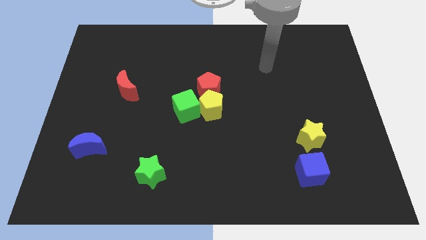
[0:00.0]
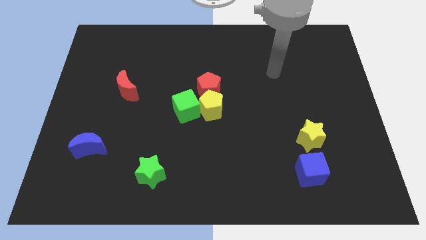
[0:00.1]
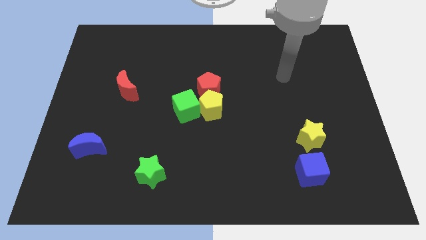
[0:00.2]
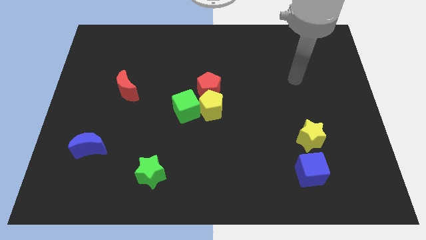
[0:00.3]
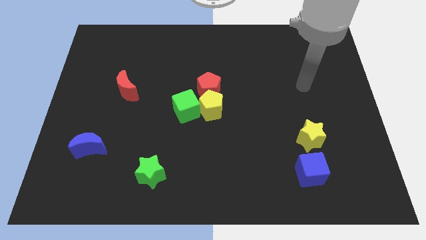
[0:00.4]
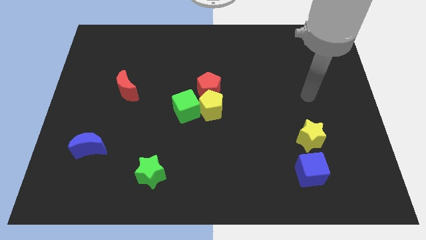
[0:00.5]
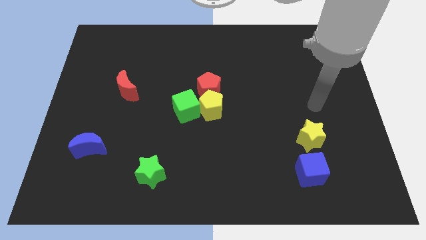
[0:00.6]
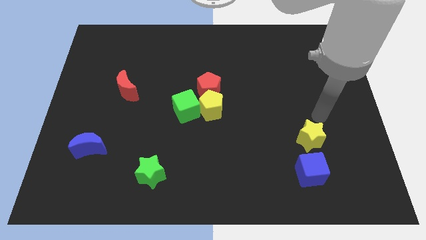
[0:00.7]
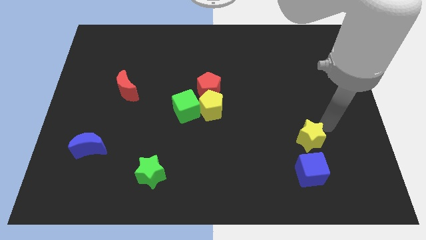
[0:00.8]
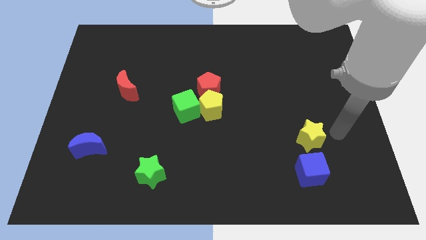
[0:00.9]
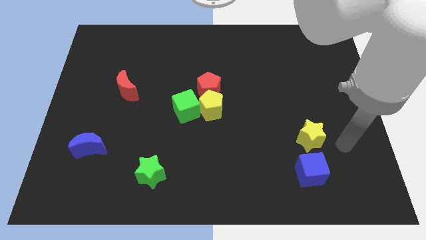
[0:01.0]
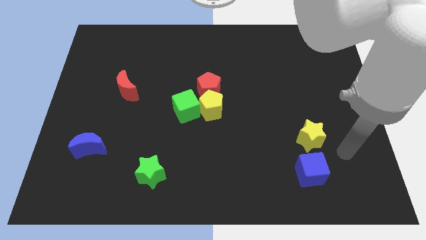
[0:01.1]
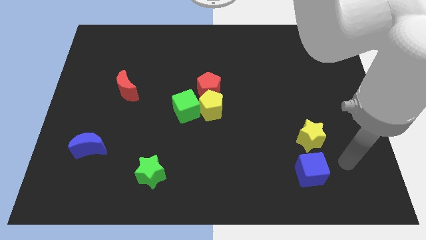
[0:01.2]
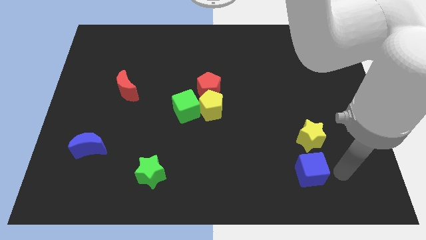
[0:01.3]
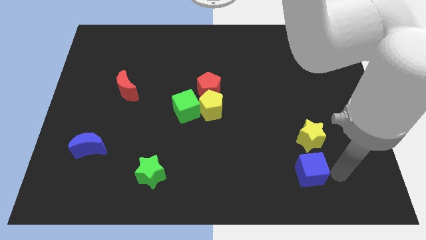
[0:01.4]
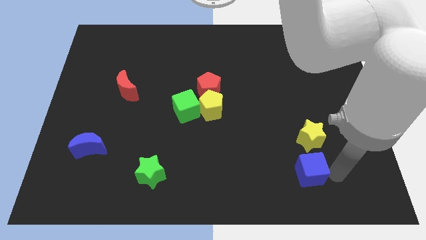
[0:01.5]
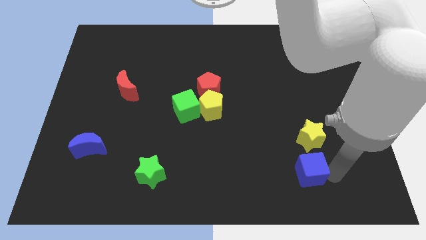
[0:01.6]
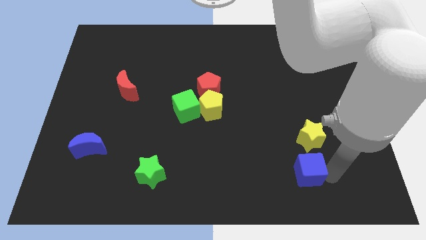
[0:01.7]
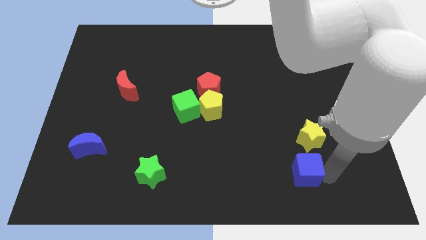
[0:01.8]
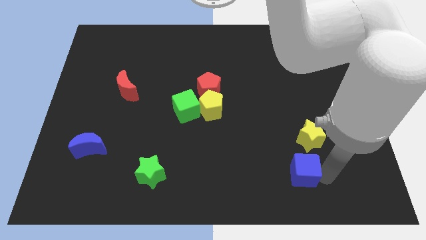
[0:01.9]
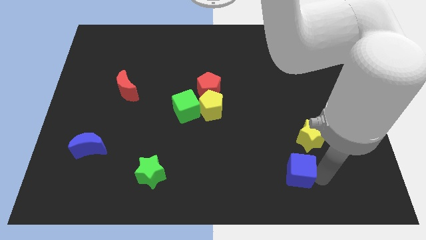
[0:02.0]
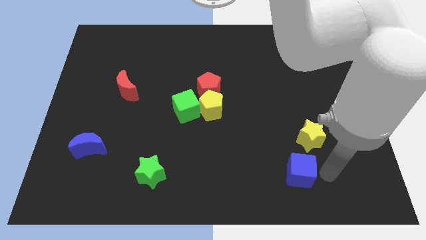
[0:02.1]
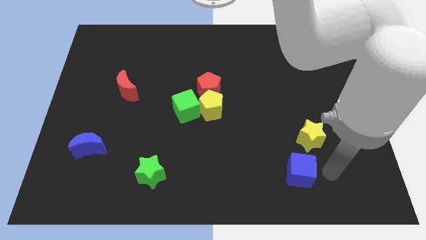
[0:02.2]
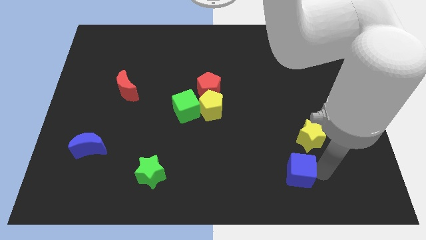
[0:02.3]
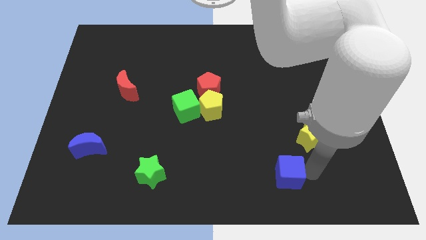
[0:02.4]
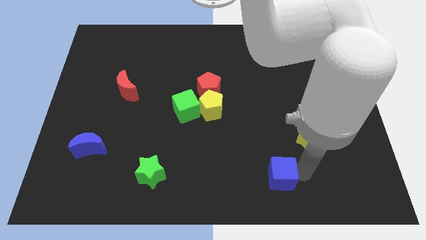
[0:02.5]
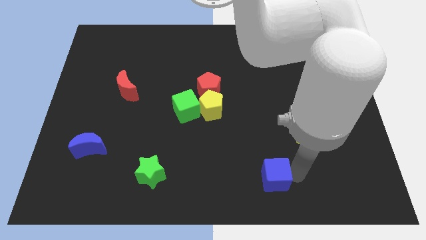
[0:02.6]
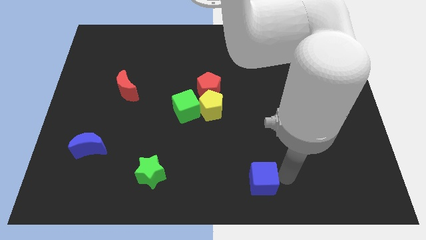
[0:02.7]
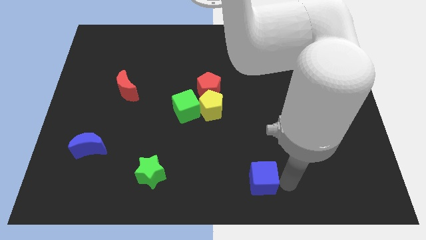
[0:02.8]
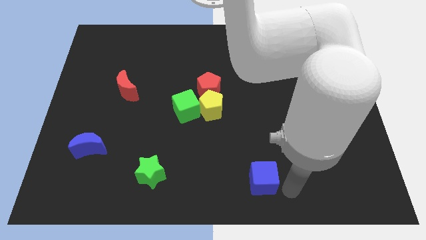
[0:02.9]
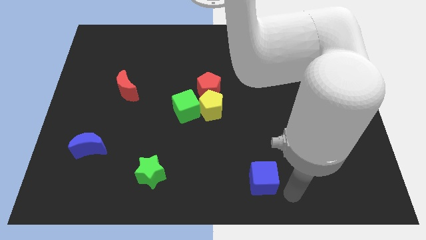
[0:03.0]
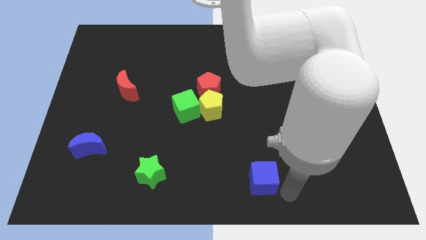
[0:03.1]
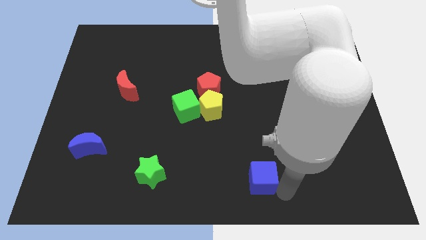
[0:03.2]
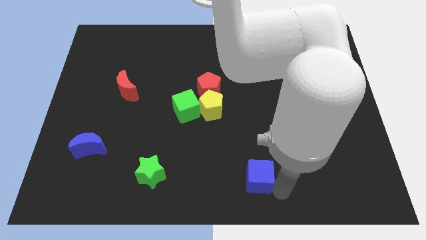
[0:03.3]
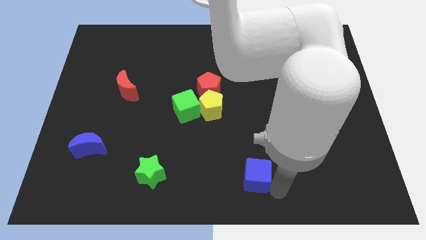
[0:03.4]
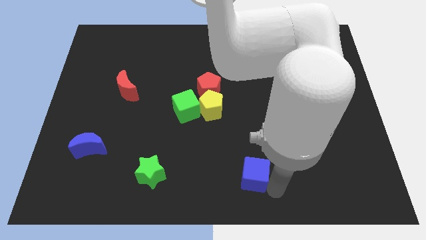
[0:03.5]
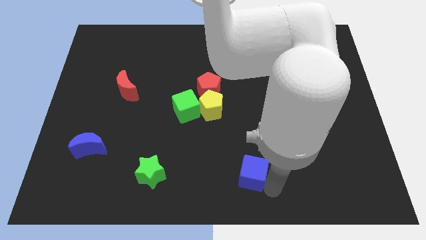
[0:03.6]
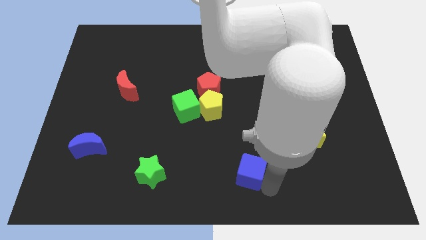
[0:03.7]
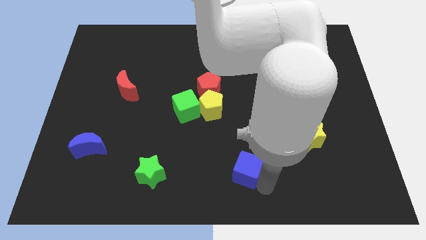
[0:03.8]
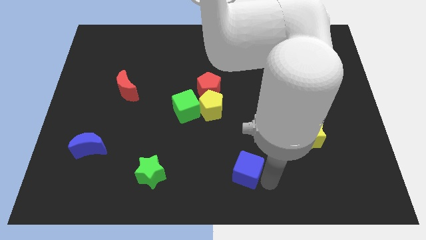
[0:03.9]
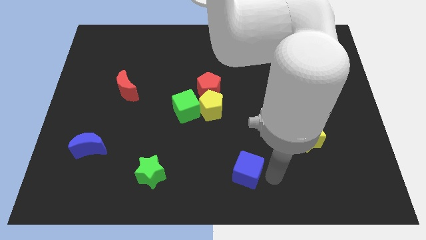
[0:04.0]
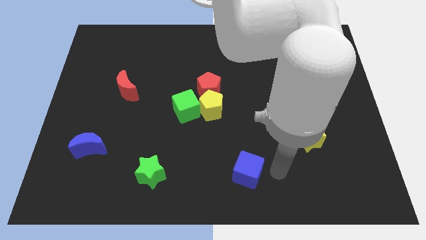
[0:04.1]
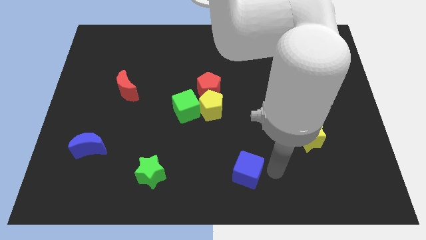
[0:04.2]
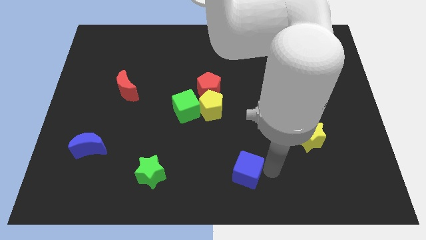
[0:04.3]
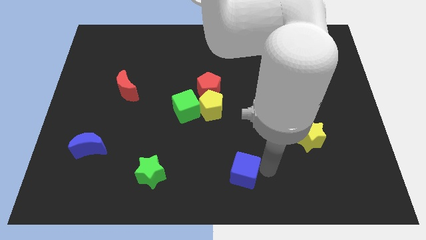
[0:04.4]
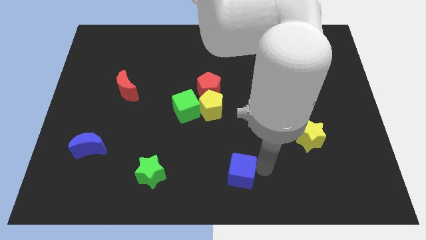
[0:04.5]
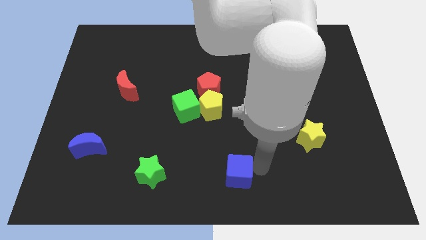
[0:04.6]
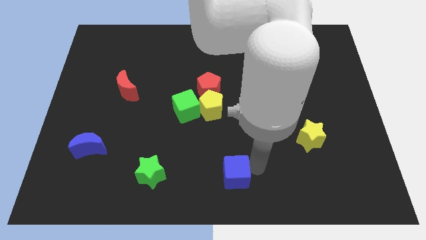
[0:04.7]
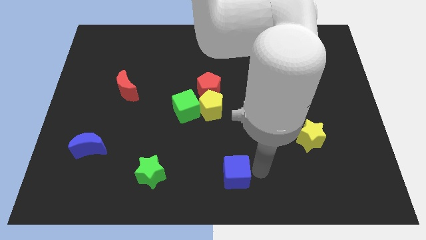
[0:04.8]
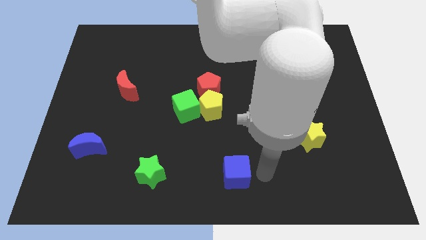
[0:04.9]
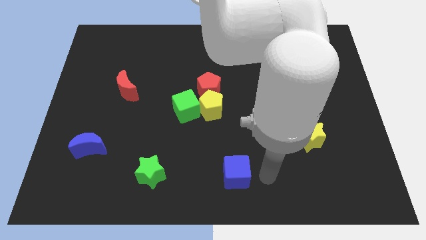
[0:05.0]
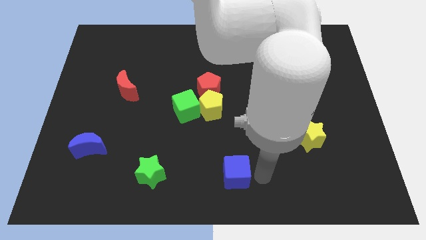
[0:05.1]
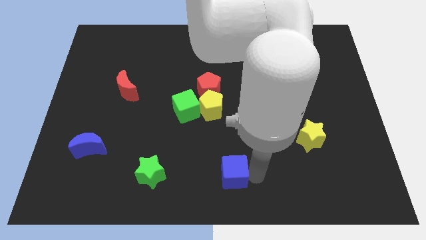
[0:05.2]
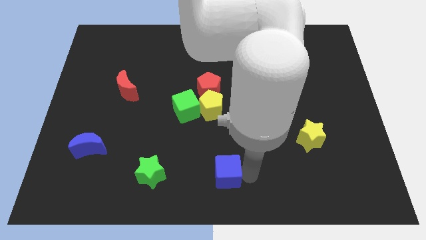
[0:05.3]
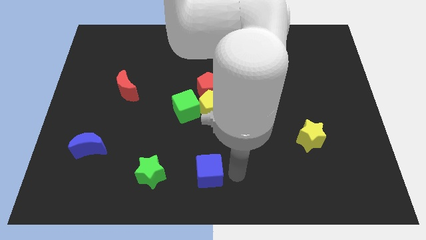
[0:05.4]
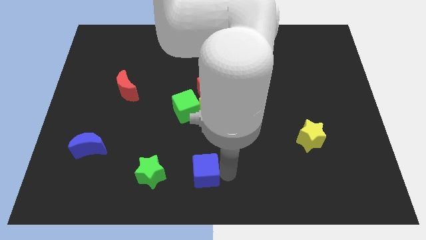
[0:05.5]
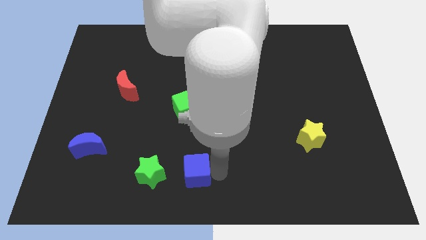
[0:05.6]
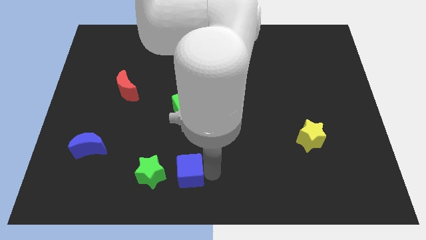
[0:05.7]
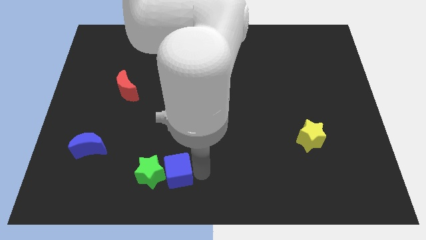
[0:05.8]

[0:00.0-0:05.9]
move the blue cube towards the green star

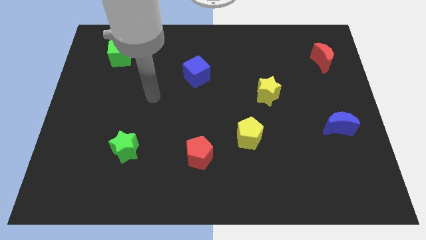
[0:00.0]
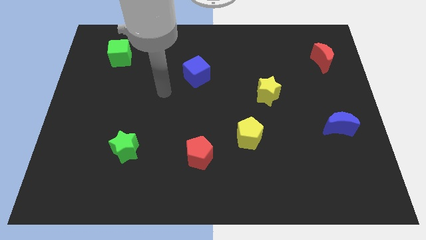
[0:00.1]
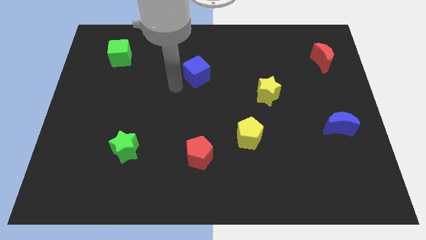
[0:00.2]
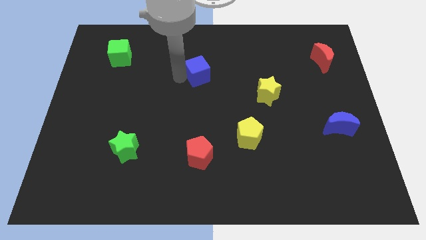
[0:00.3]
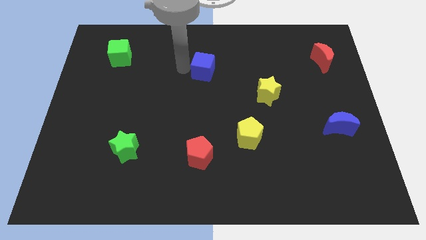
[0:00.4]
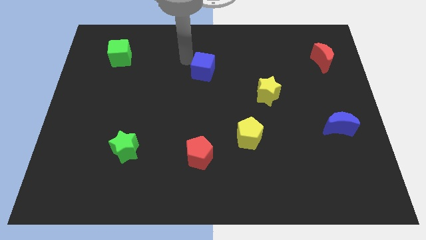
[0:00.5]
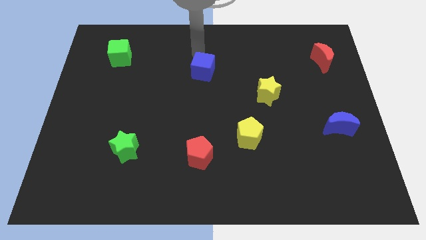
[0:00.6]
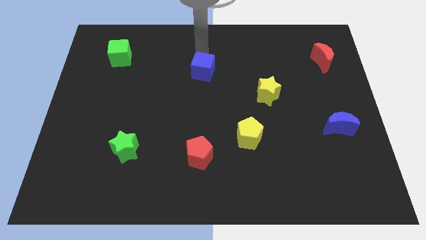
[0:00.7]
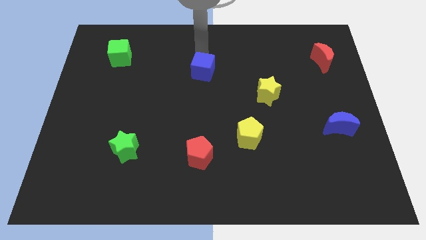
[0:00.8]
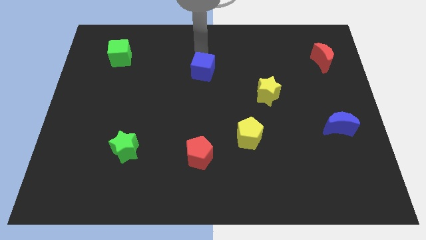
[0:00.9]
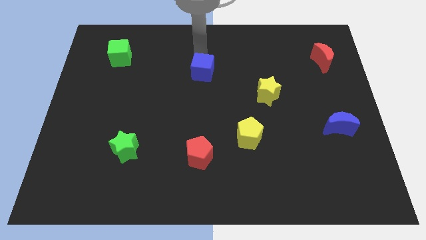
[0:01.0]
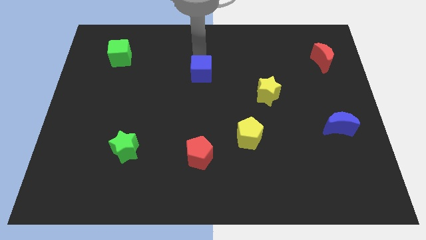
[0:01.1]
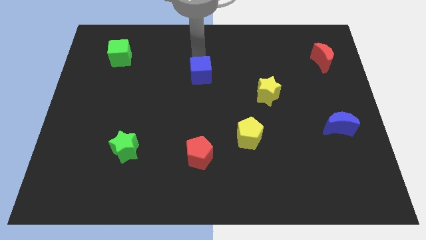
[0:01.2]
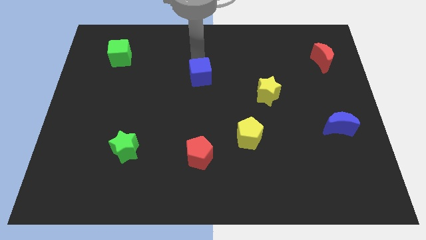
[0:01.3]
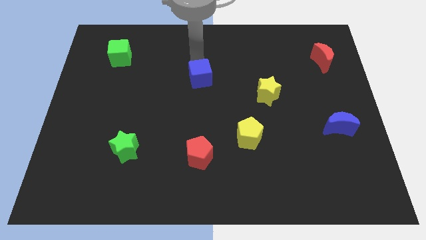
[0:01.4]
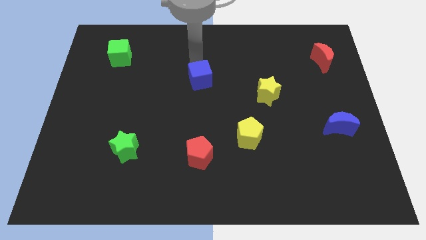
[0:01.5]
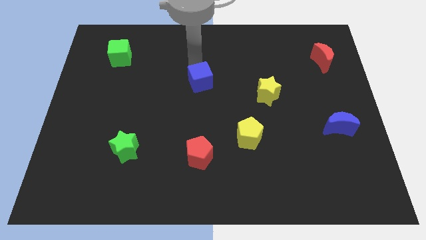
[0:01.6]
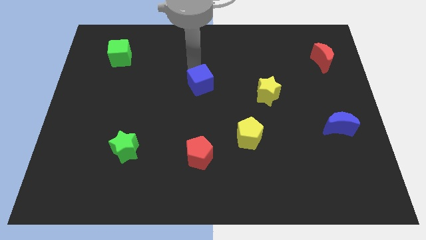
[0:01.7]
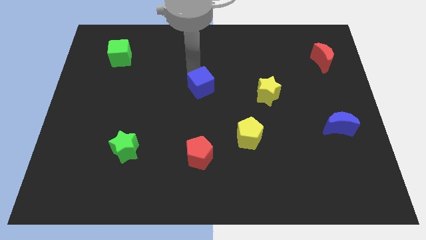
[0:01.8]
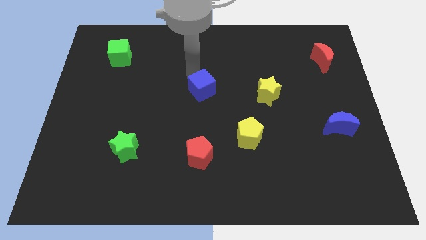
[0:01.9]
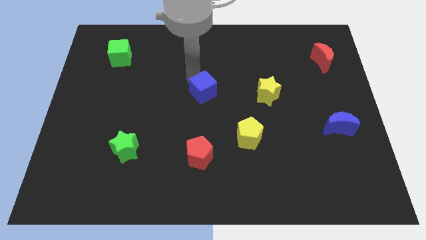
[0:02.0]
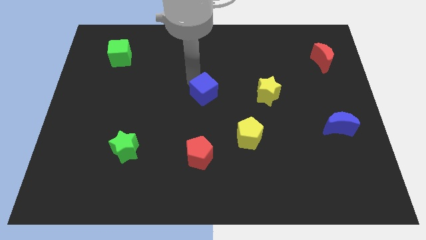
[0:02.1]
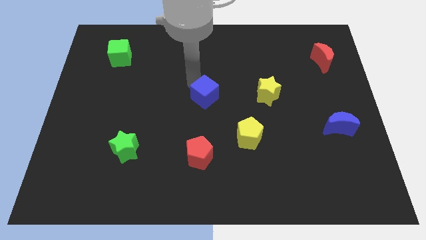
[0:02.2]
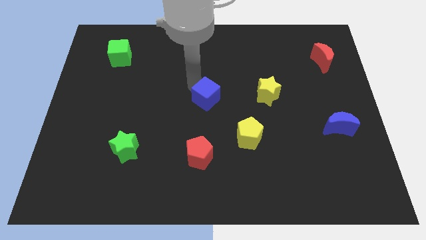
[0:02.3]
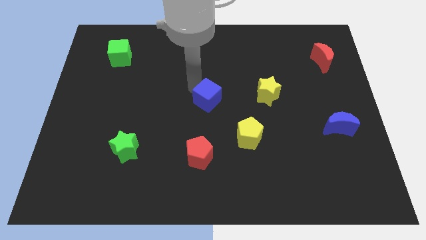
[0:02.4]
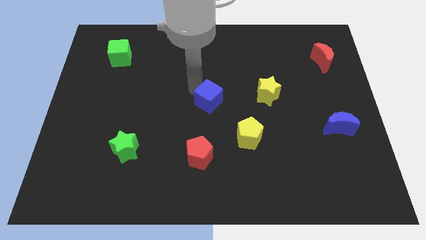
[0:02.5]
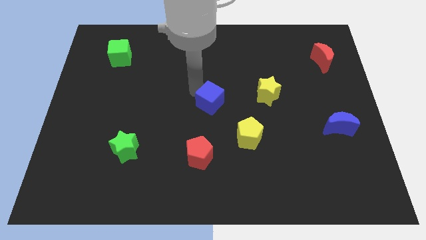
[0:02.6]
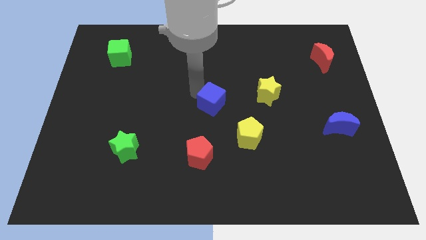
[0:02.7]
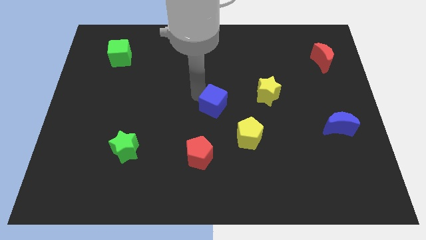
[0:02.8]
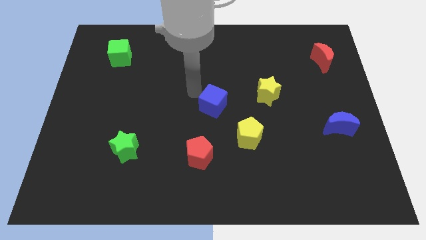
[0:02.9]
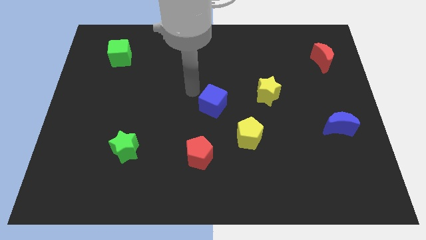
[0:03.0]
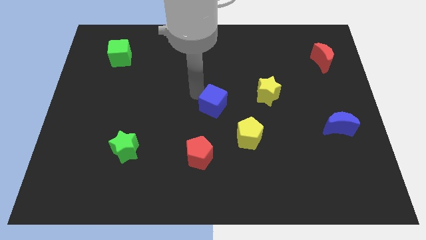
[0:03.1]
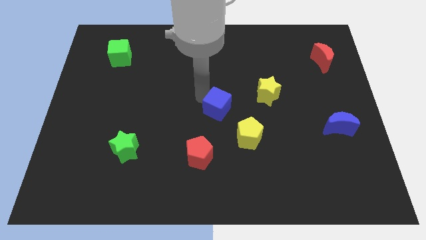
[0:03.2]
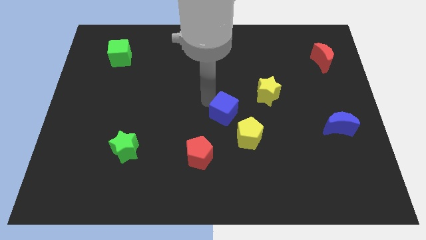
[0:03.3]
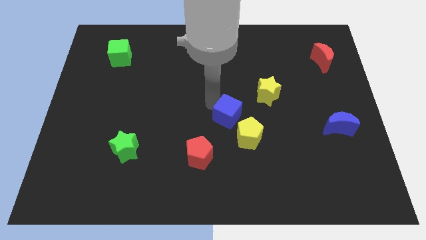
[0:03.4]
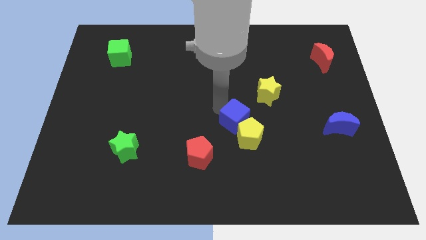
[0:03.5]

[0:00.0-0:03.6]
slide the blue cube towards the yellow pentagon
